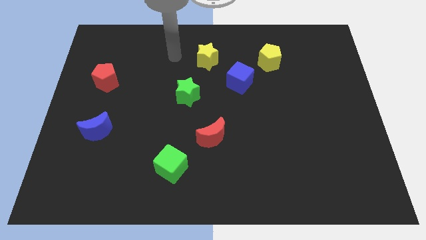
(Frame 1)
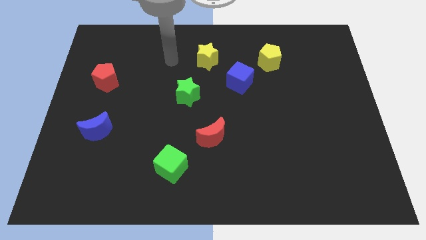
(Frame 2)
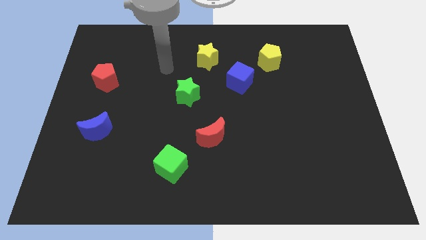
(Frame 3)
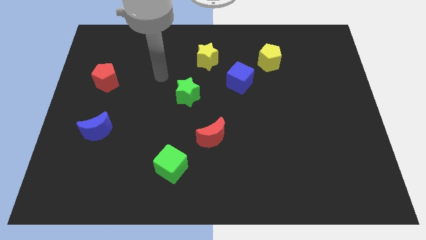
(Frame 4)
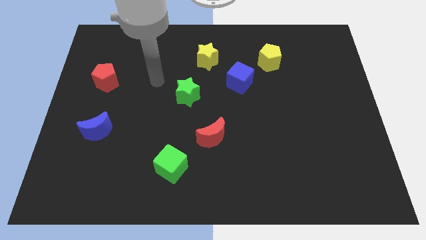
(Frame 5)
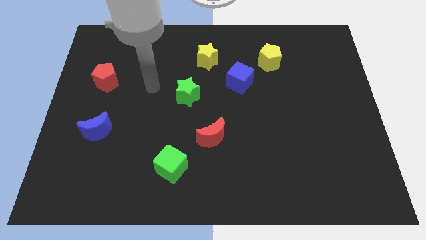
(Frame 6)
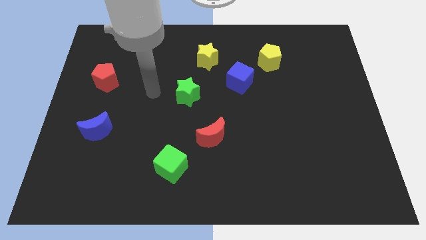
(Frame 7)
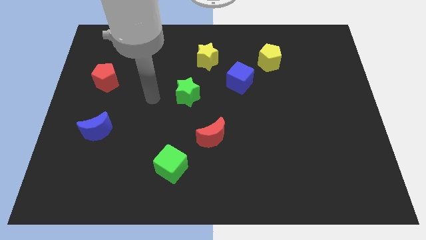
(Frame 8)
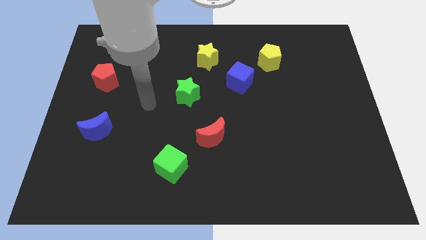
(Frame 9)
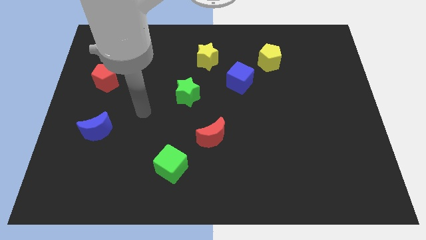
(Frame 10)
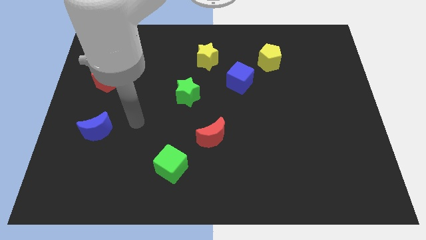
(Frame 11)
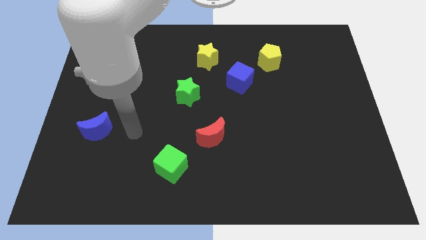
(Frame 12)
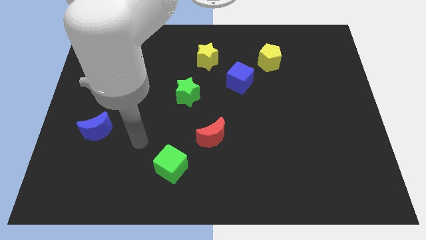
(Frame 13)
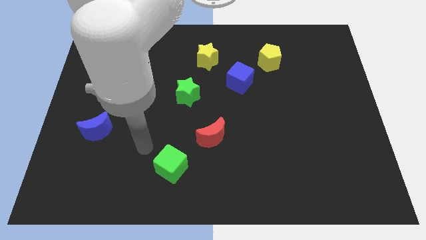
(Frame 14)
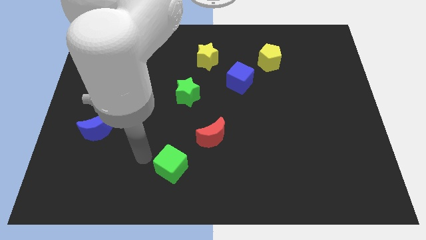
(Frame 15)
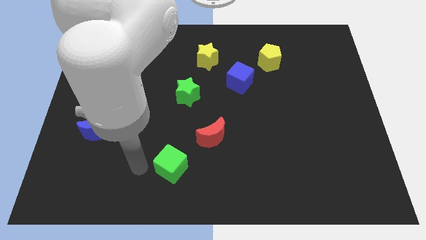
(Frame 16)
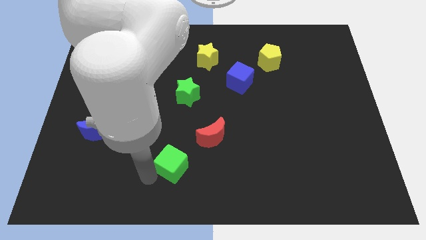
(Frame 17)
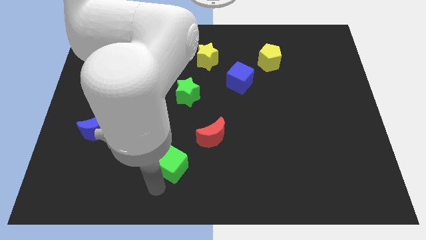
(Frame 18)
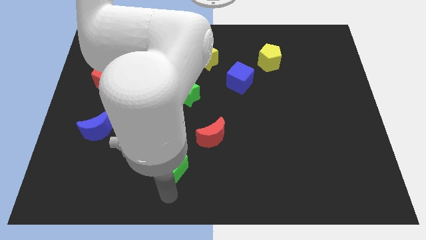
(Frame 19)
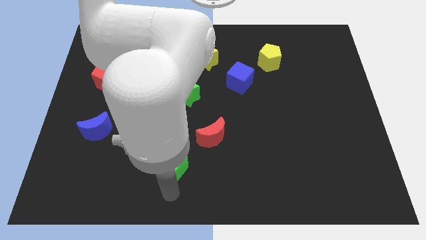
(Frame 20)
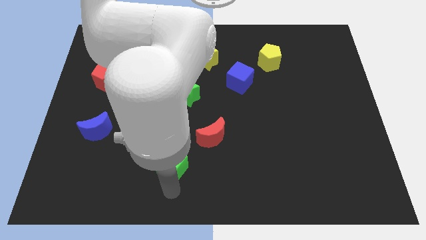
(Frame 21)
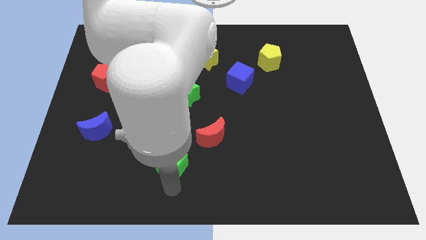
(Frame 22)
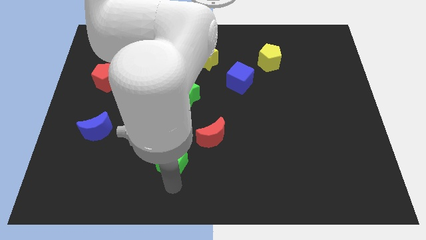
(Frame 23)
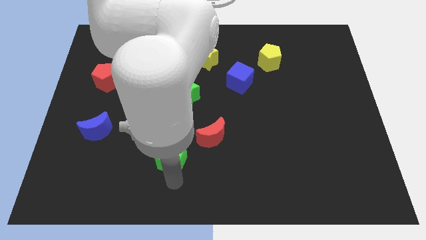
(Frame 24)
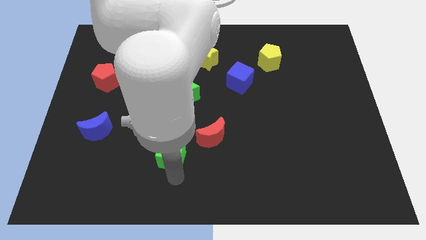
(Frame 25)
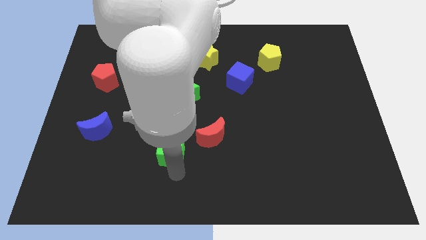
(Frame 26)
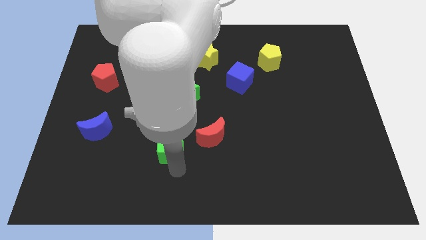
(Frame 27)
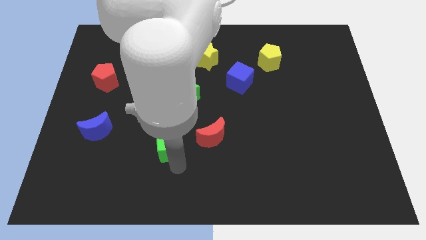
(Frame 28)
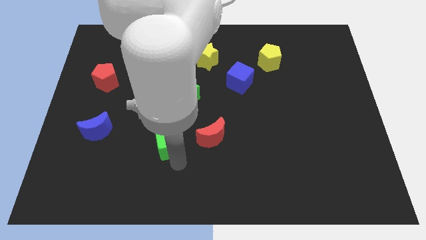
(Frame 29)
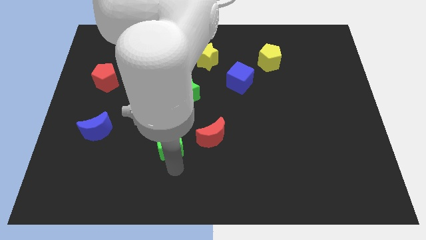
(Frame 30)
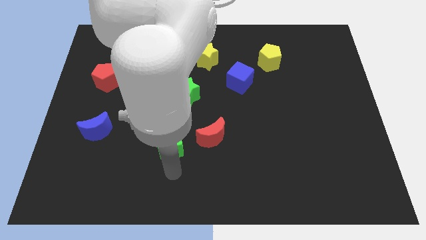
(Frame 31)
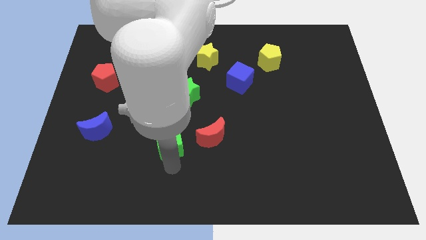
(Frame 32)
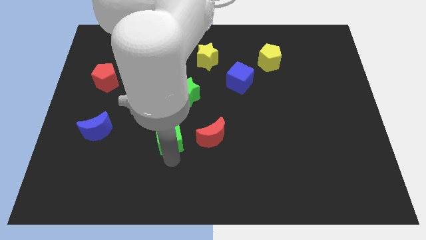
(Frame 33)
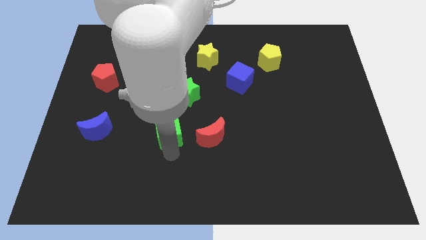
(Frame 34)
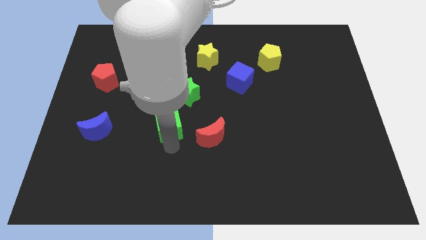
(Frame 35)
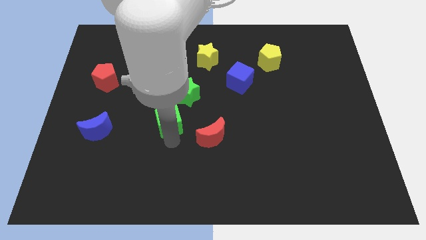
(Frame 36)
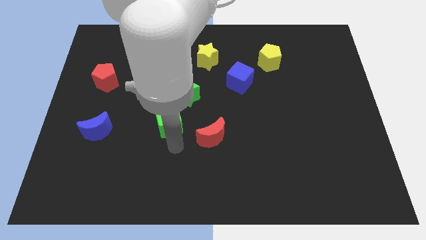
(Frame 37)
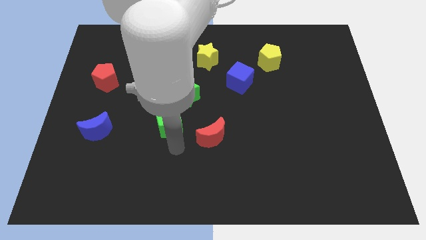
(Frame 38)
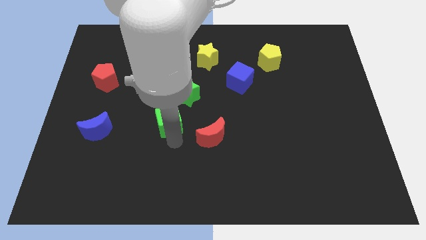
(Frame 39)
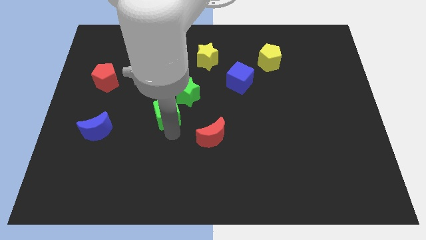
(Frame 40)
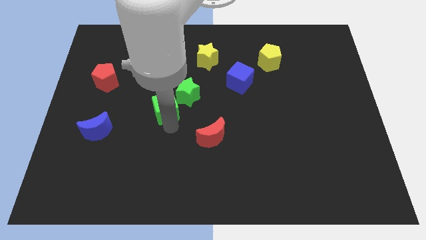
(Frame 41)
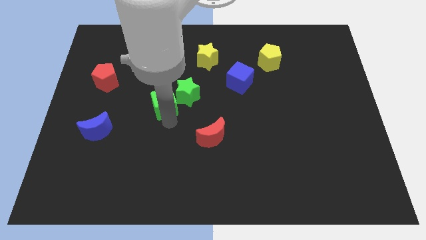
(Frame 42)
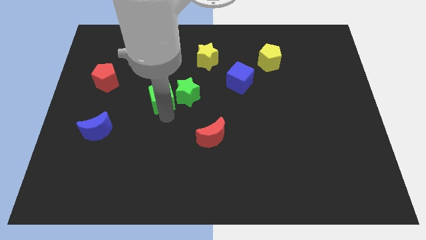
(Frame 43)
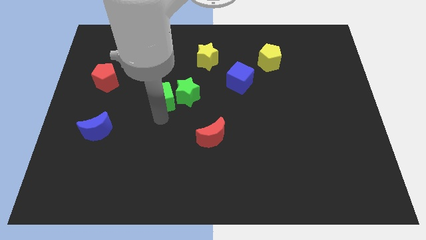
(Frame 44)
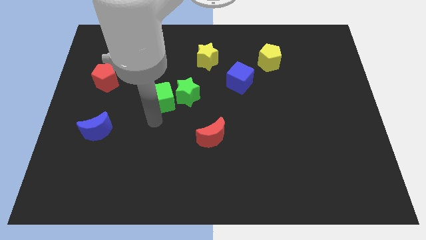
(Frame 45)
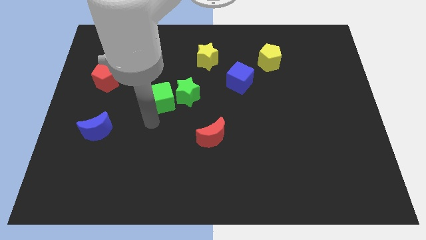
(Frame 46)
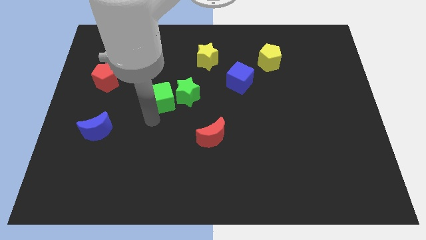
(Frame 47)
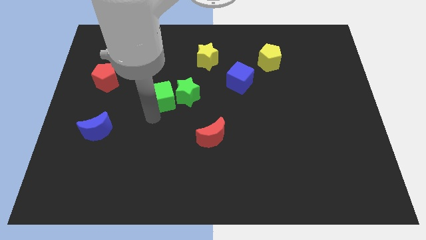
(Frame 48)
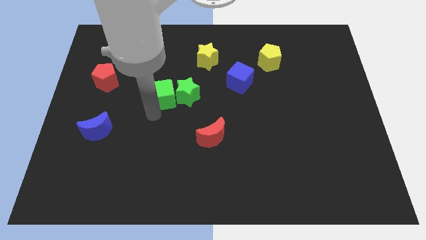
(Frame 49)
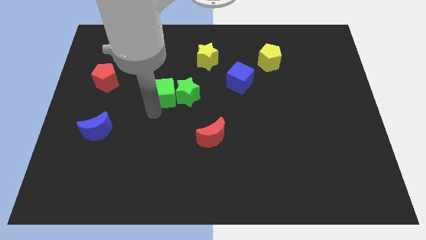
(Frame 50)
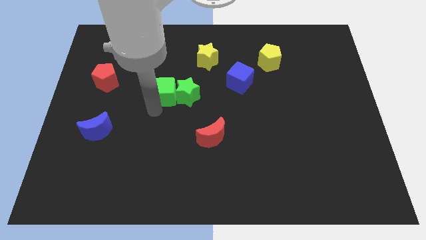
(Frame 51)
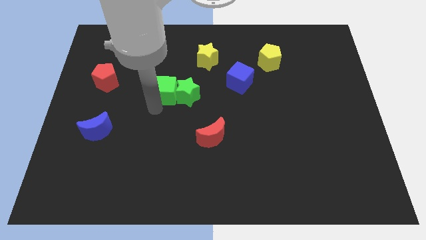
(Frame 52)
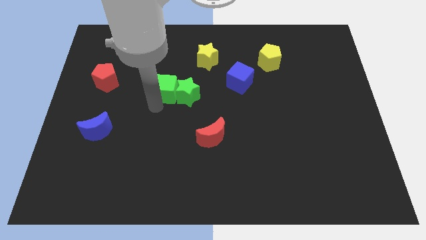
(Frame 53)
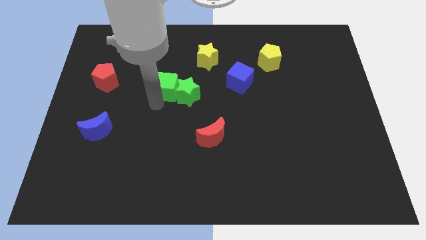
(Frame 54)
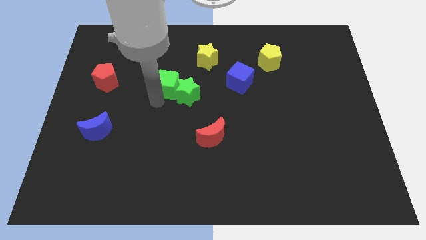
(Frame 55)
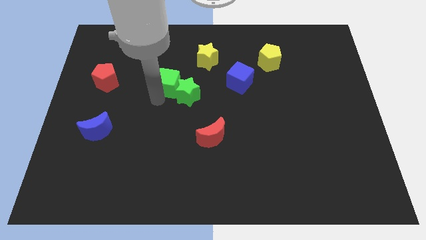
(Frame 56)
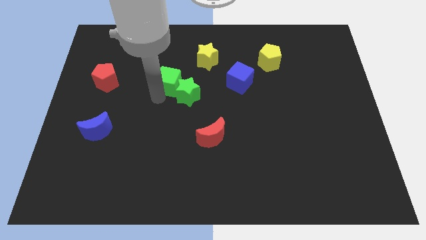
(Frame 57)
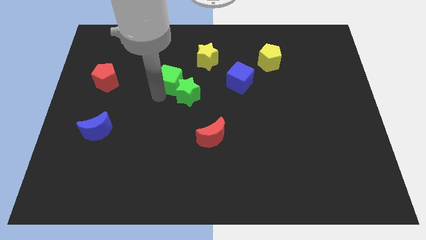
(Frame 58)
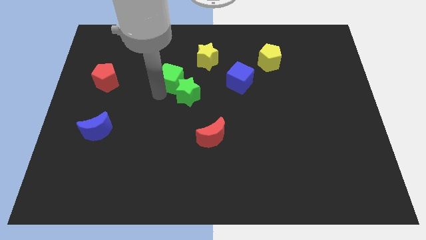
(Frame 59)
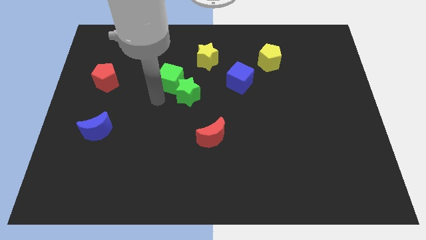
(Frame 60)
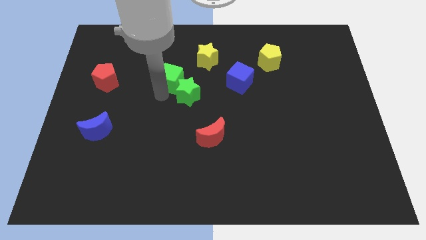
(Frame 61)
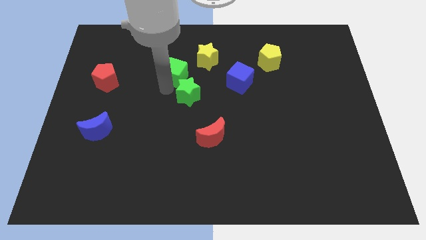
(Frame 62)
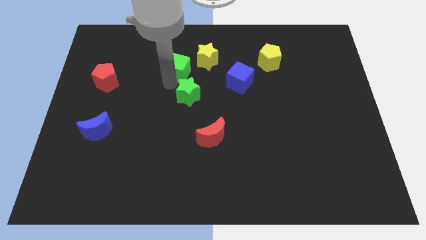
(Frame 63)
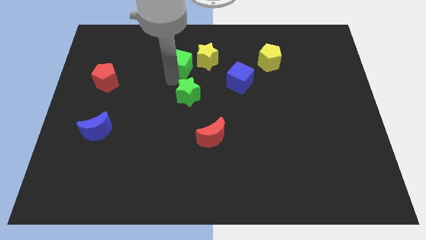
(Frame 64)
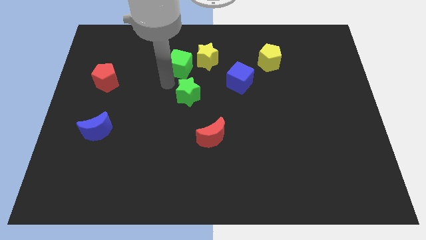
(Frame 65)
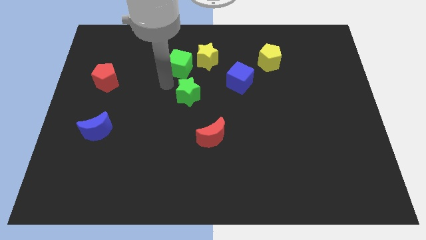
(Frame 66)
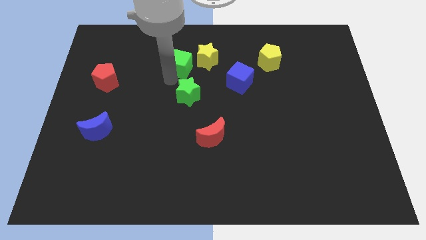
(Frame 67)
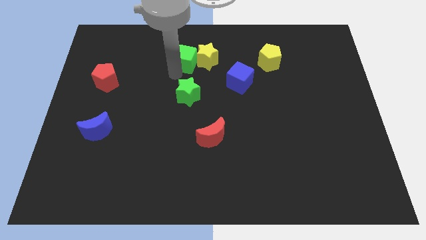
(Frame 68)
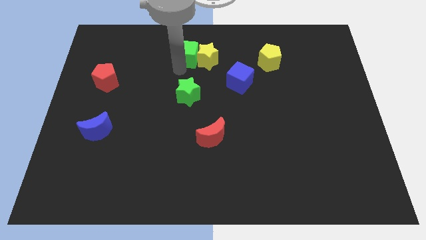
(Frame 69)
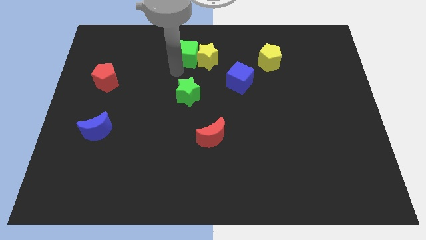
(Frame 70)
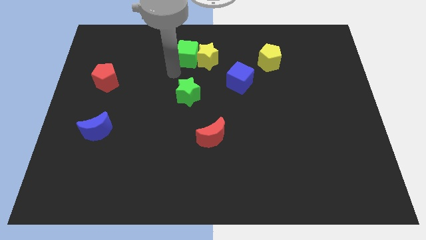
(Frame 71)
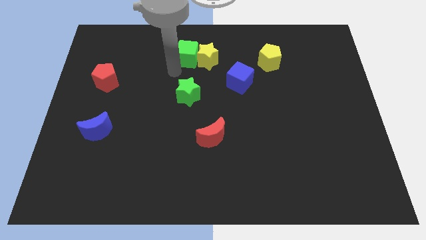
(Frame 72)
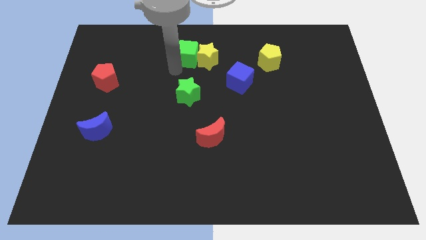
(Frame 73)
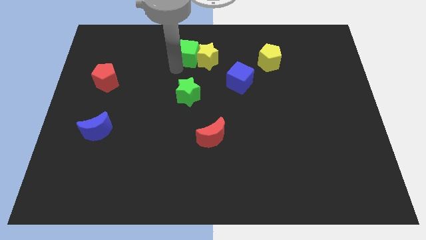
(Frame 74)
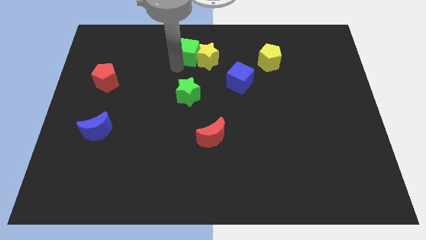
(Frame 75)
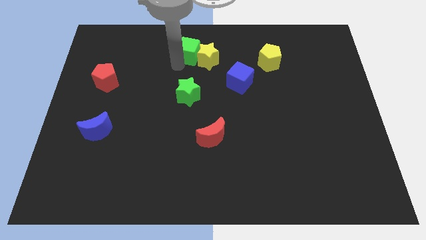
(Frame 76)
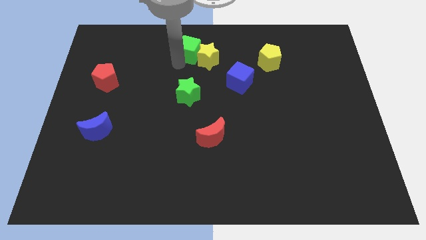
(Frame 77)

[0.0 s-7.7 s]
move the green cube to the top side
